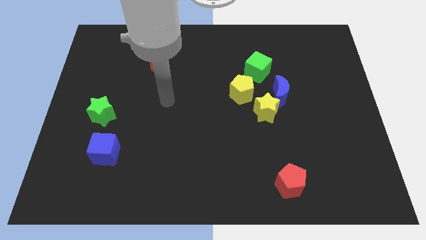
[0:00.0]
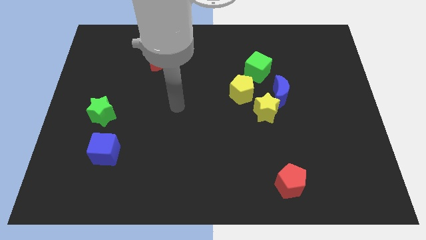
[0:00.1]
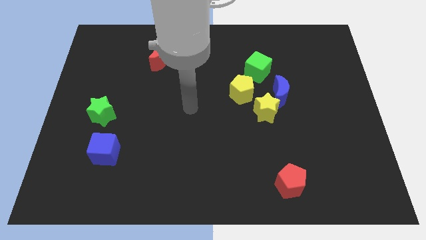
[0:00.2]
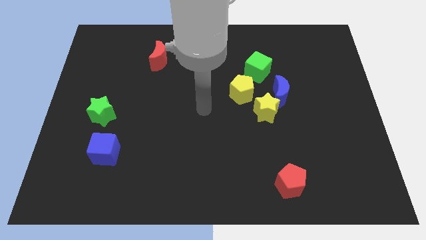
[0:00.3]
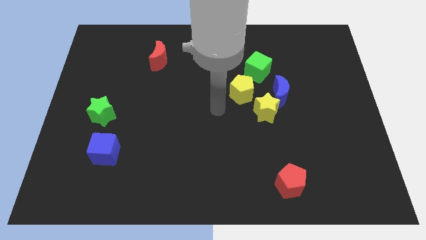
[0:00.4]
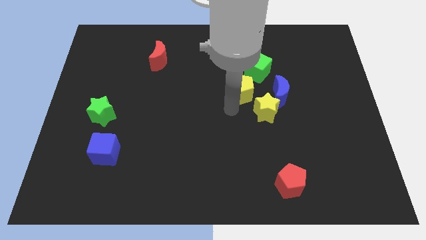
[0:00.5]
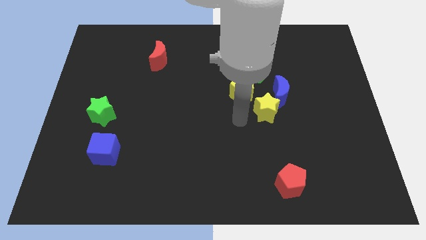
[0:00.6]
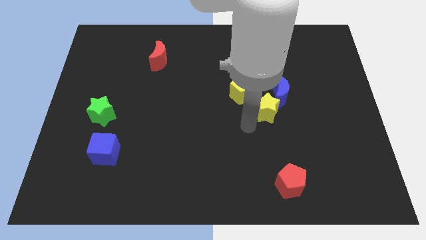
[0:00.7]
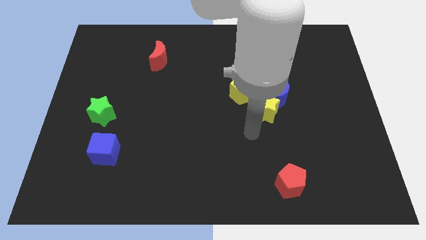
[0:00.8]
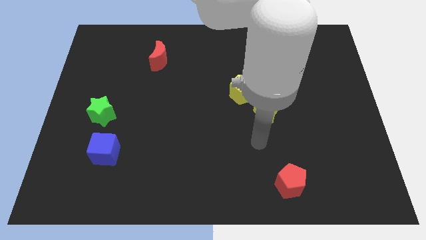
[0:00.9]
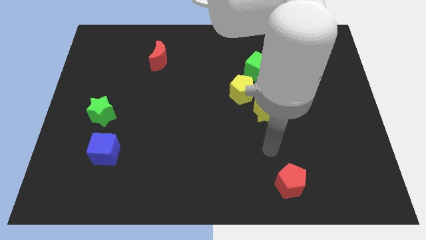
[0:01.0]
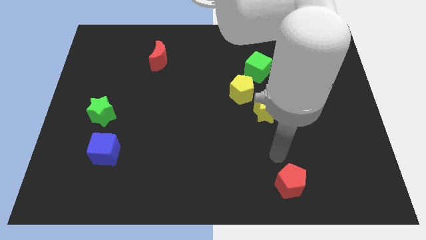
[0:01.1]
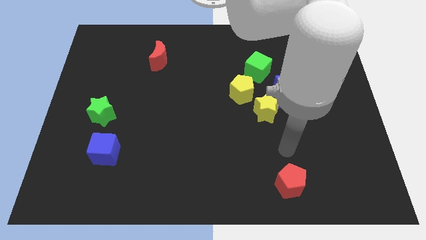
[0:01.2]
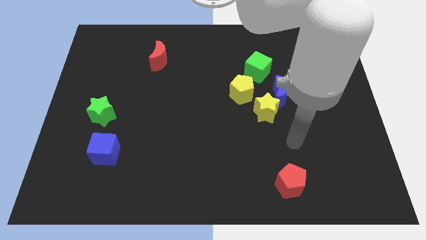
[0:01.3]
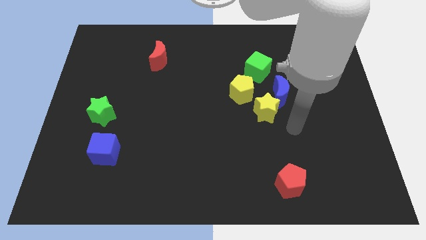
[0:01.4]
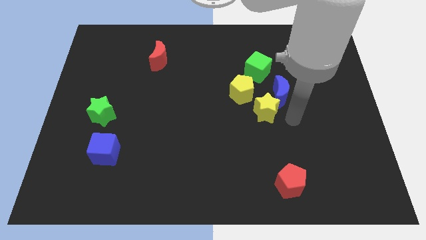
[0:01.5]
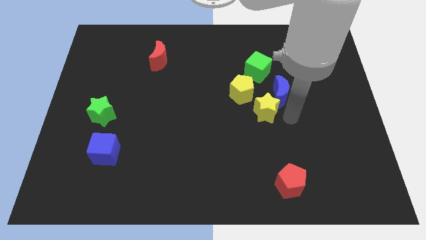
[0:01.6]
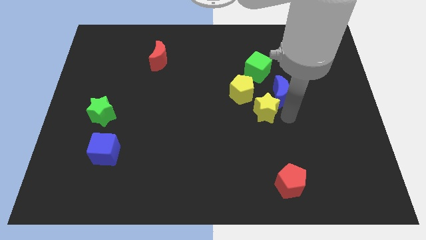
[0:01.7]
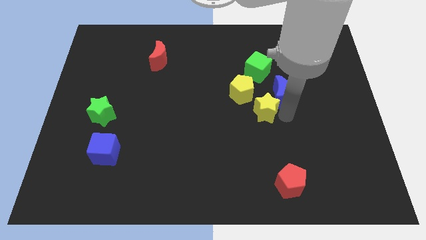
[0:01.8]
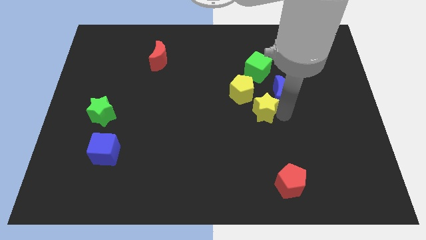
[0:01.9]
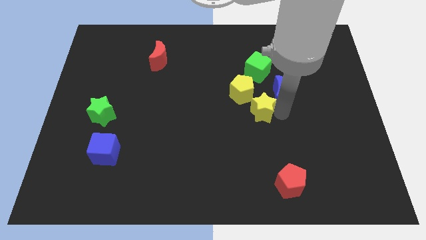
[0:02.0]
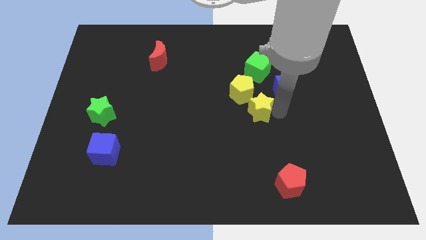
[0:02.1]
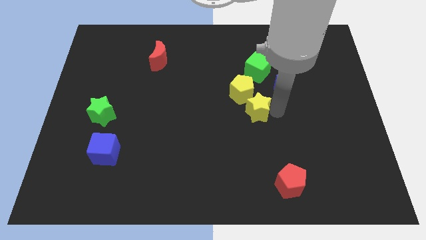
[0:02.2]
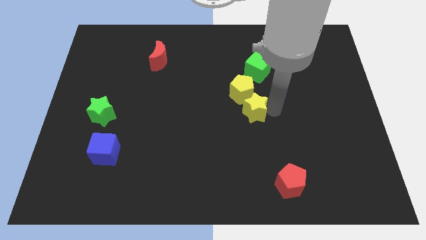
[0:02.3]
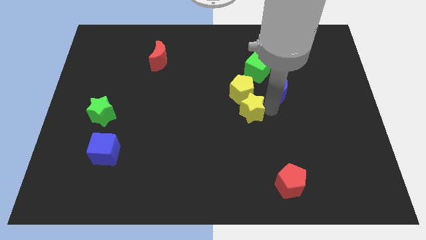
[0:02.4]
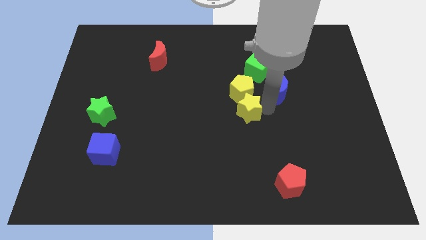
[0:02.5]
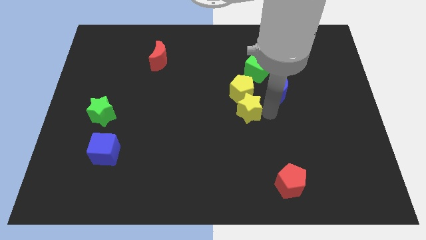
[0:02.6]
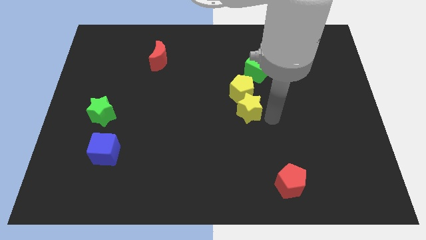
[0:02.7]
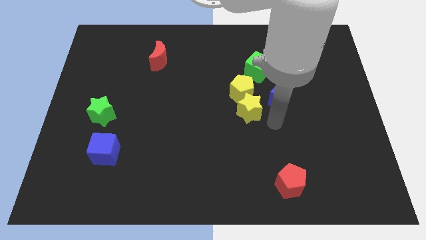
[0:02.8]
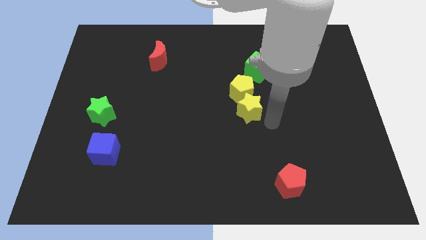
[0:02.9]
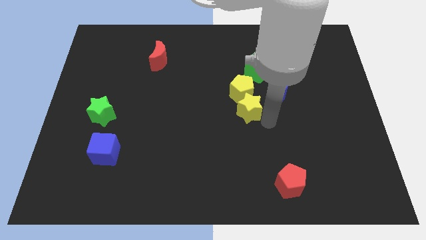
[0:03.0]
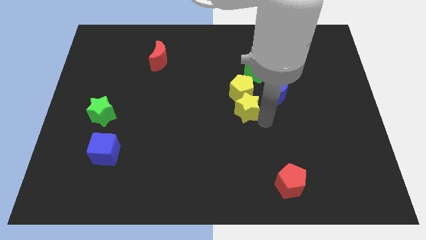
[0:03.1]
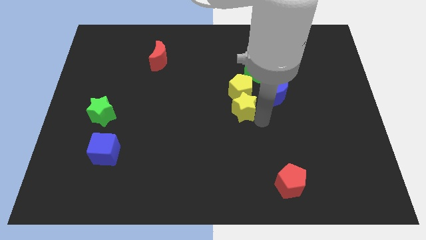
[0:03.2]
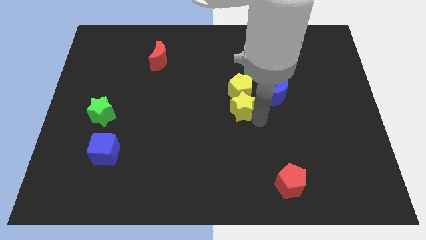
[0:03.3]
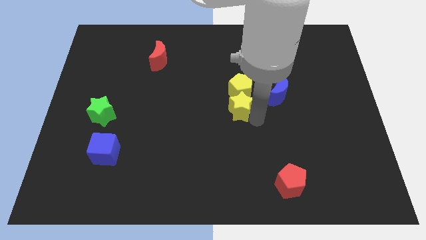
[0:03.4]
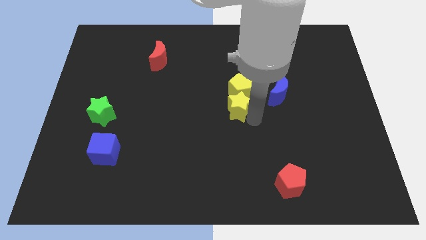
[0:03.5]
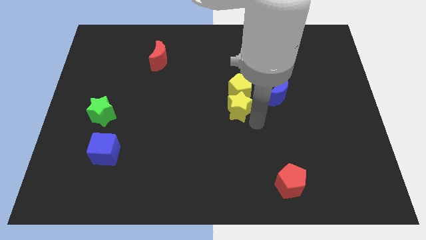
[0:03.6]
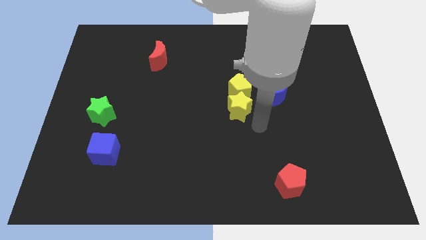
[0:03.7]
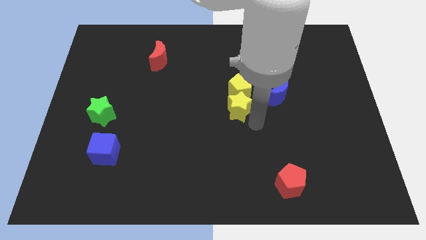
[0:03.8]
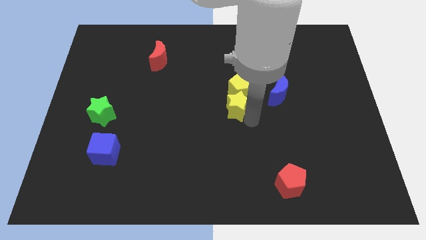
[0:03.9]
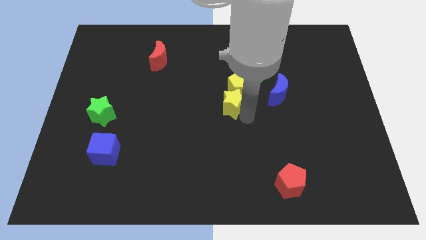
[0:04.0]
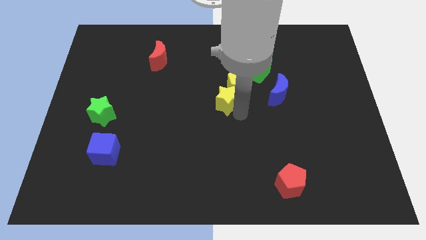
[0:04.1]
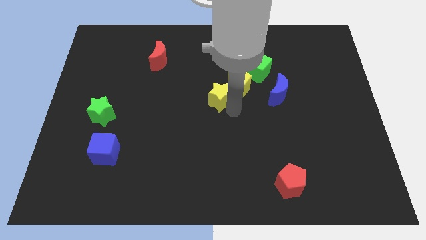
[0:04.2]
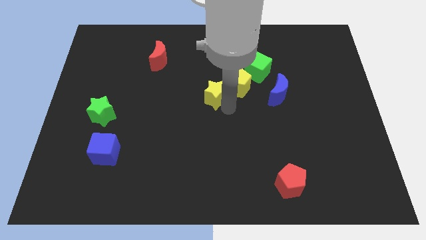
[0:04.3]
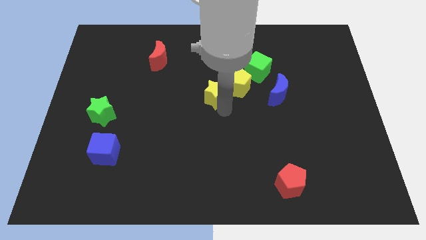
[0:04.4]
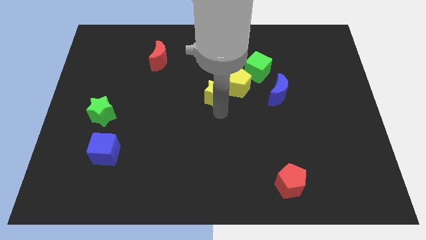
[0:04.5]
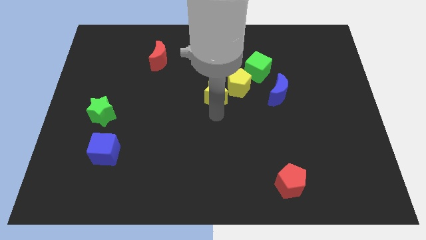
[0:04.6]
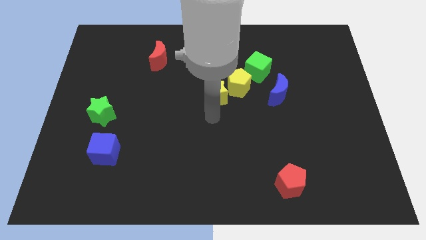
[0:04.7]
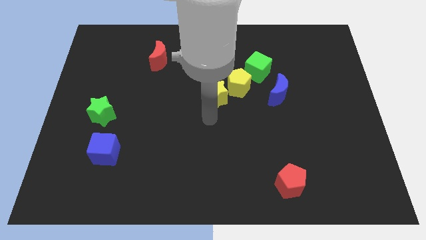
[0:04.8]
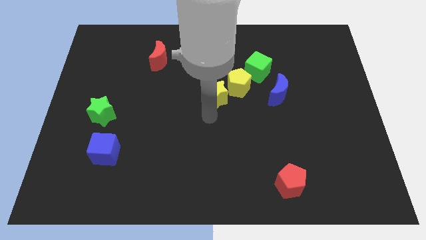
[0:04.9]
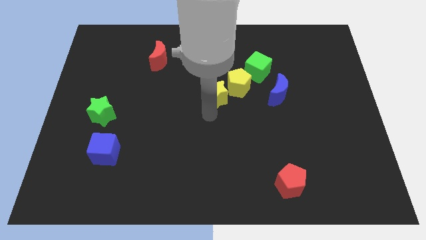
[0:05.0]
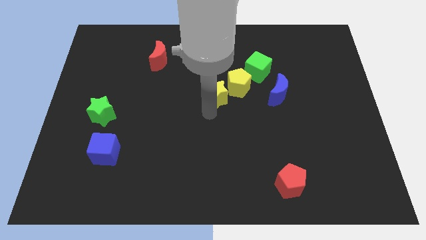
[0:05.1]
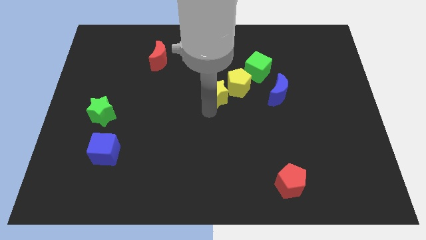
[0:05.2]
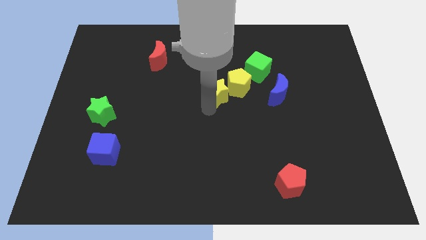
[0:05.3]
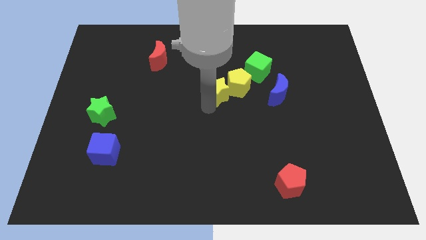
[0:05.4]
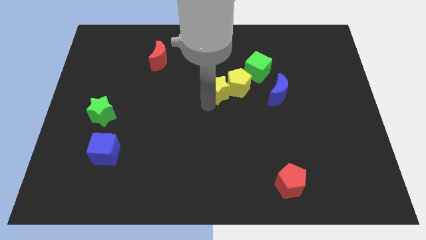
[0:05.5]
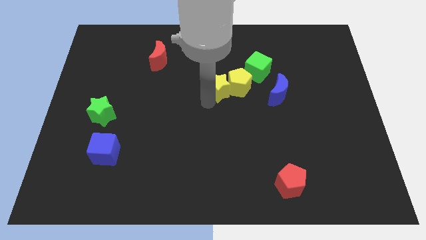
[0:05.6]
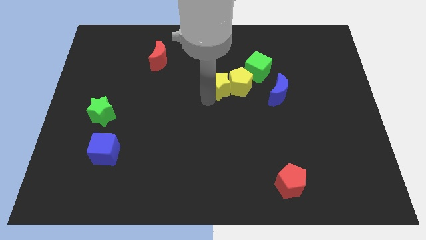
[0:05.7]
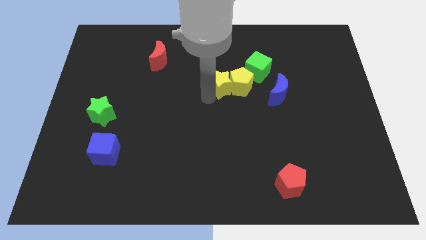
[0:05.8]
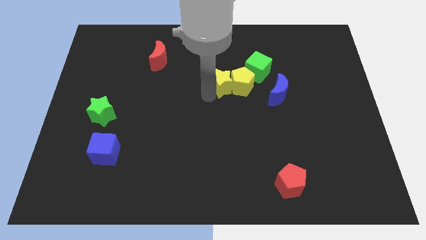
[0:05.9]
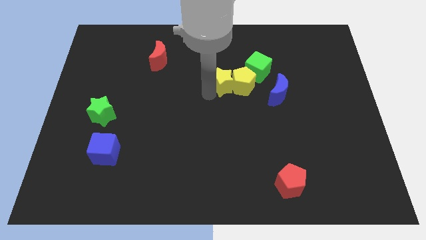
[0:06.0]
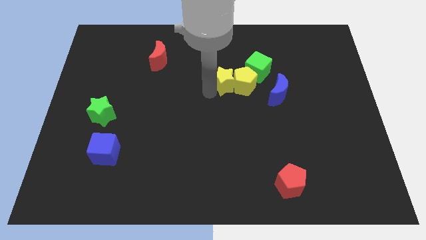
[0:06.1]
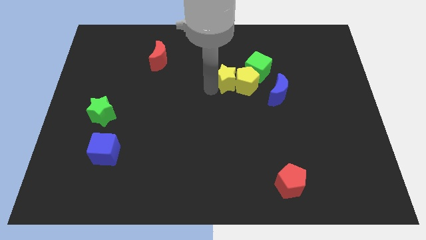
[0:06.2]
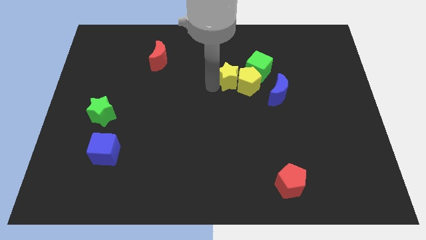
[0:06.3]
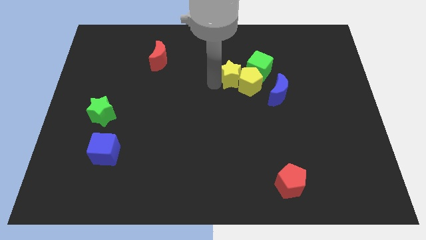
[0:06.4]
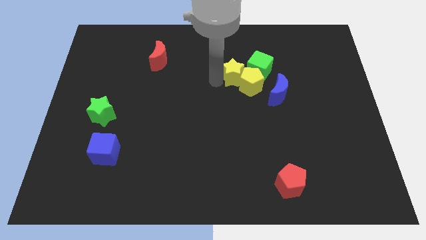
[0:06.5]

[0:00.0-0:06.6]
move the yellow star above the yellow pentagon

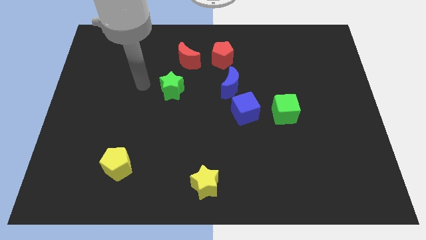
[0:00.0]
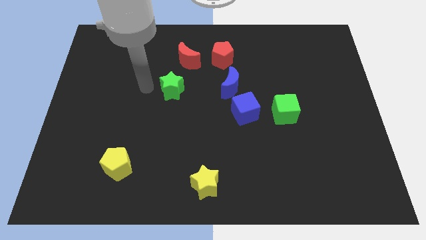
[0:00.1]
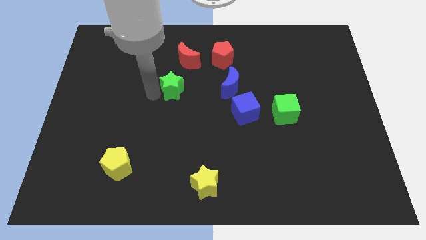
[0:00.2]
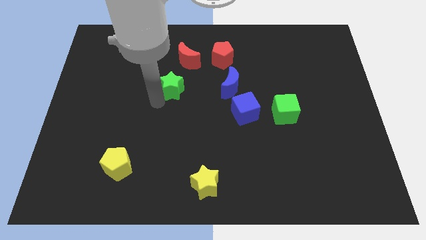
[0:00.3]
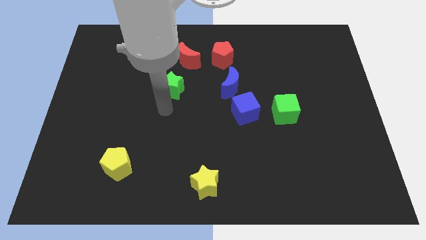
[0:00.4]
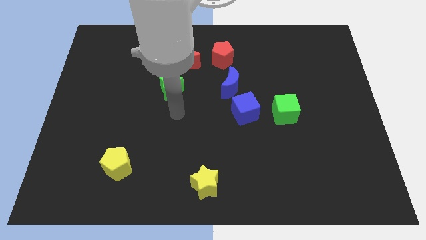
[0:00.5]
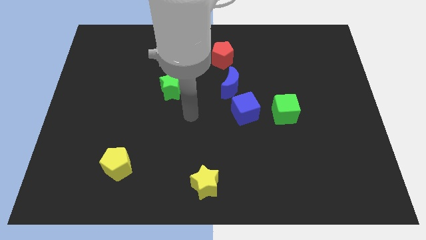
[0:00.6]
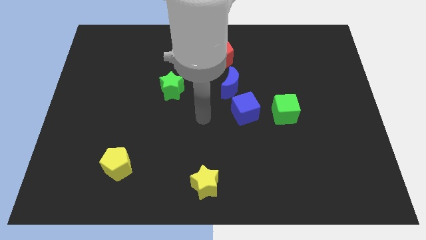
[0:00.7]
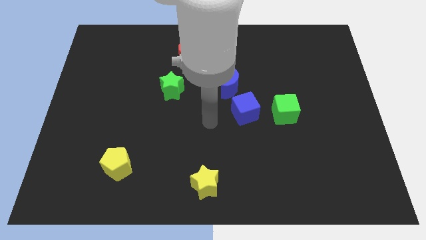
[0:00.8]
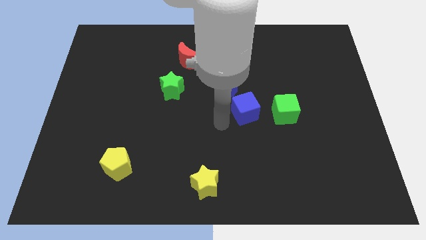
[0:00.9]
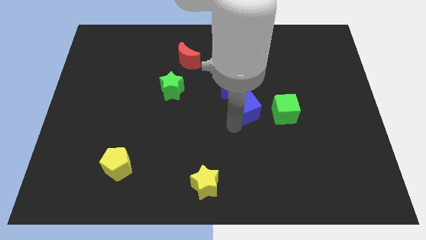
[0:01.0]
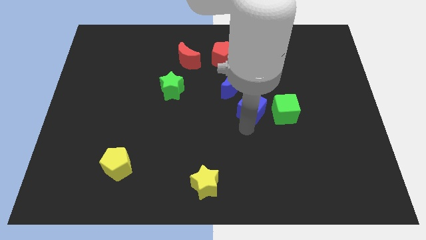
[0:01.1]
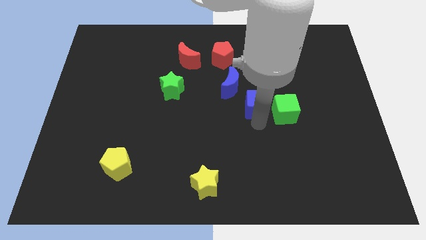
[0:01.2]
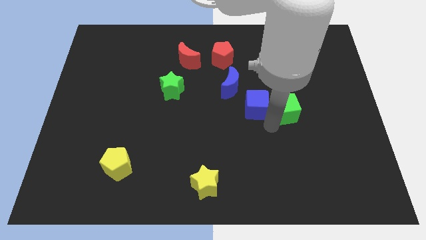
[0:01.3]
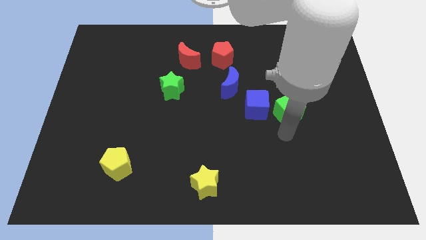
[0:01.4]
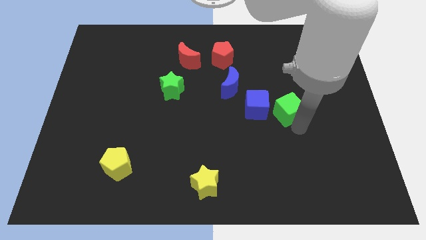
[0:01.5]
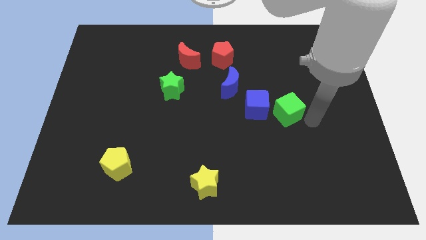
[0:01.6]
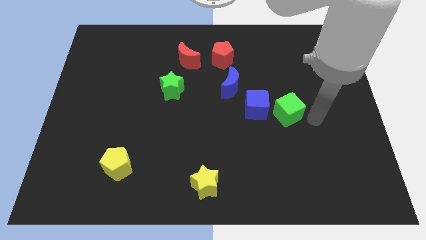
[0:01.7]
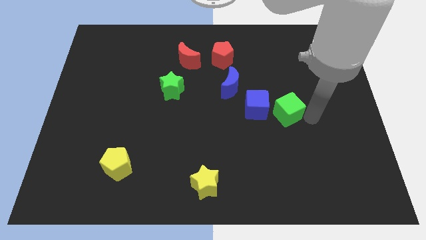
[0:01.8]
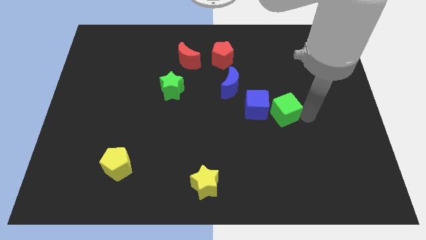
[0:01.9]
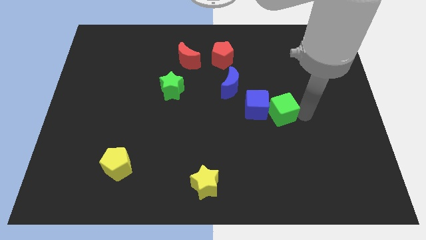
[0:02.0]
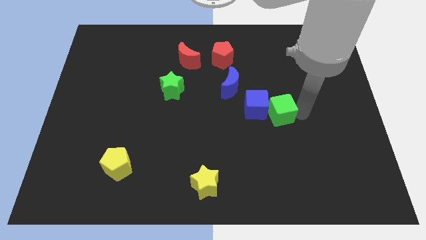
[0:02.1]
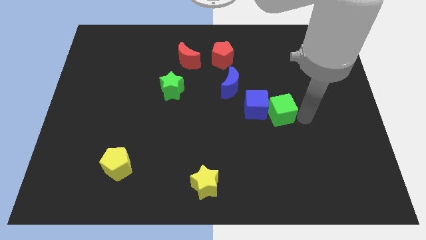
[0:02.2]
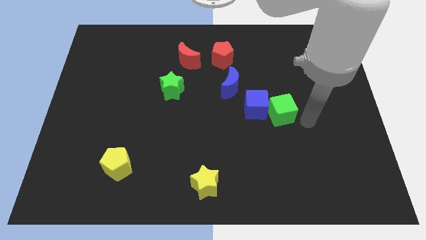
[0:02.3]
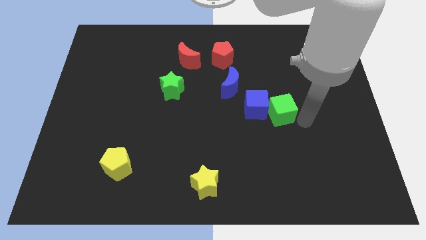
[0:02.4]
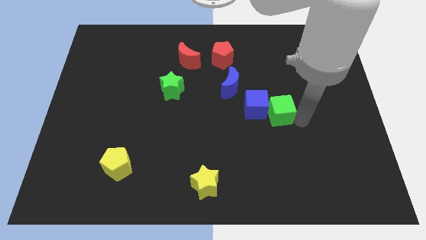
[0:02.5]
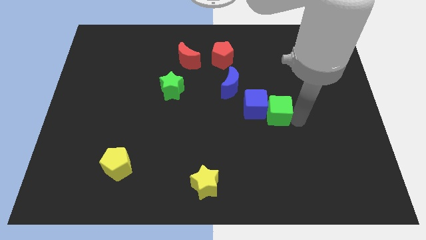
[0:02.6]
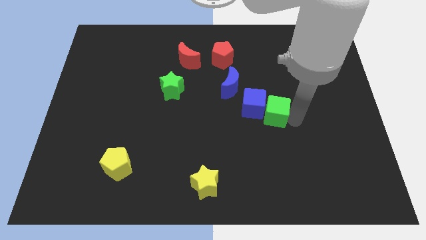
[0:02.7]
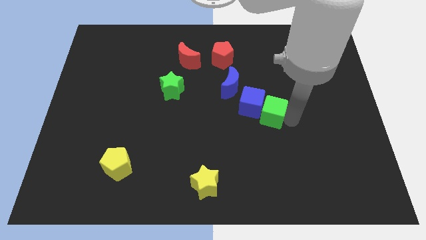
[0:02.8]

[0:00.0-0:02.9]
push the green cube to the bottom right of the blue moon
